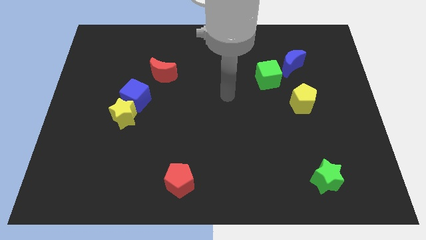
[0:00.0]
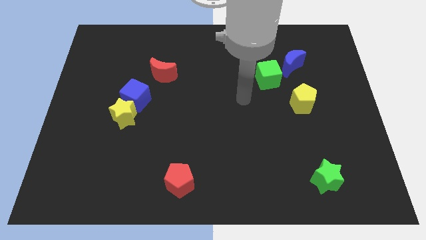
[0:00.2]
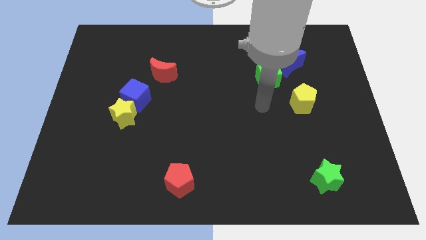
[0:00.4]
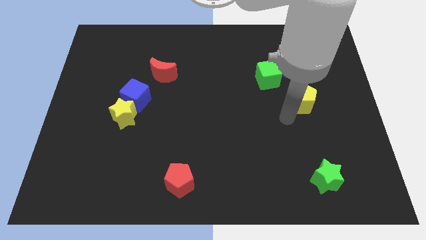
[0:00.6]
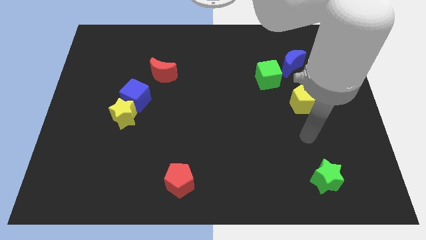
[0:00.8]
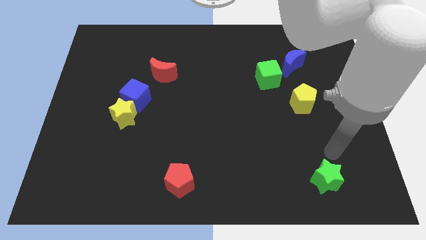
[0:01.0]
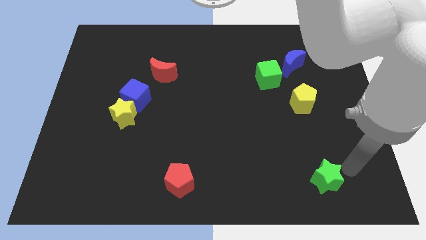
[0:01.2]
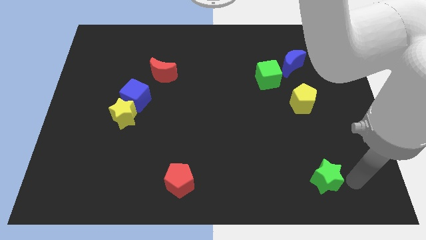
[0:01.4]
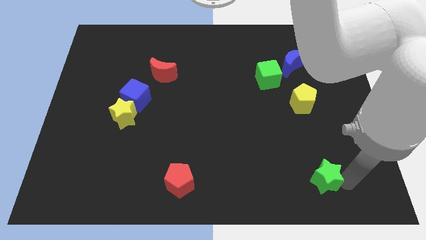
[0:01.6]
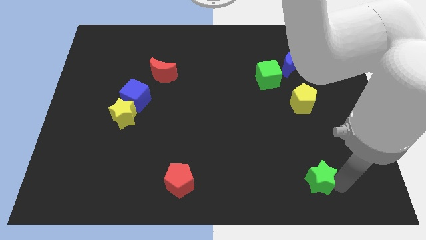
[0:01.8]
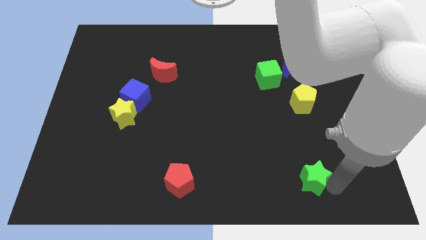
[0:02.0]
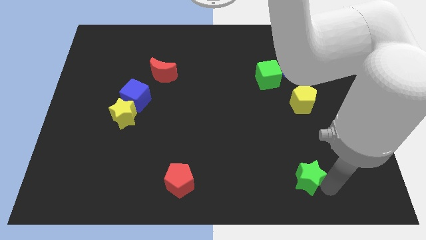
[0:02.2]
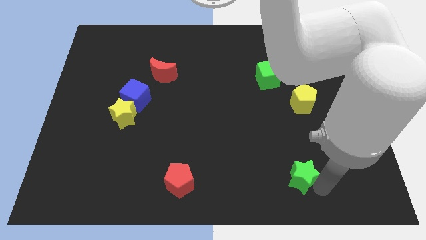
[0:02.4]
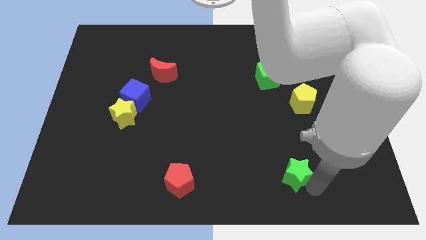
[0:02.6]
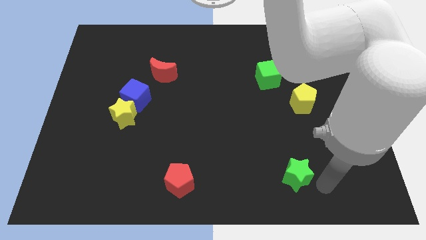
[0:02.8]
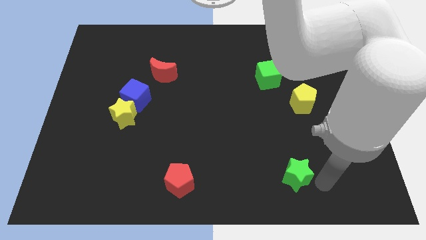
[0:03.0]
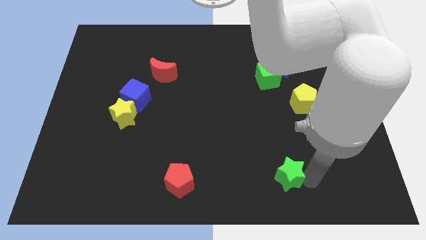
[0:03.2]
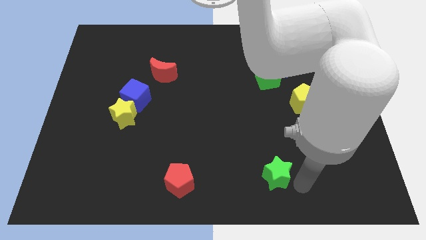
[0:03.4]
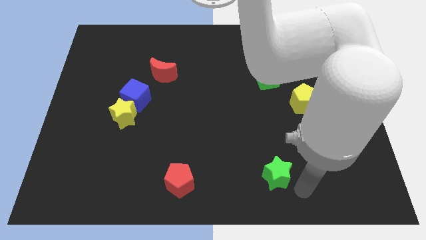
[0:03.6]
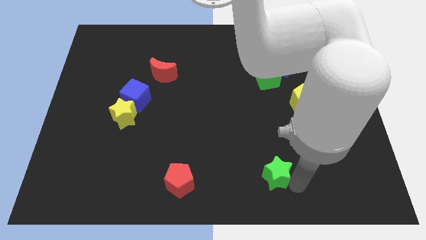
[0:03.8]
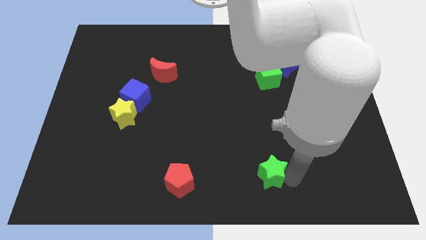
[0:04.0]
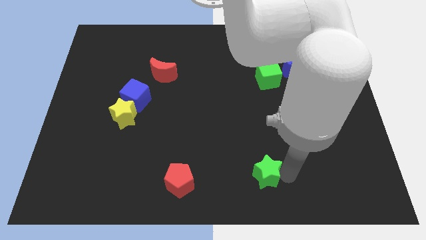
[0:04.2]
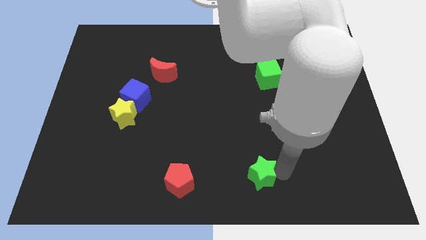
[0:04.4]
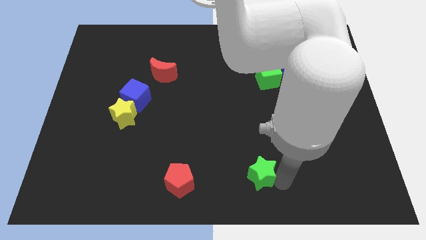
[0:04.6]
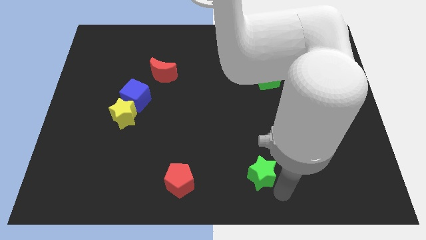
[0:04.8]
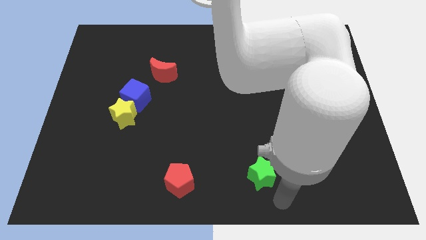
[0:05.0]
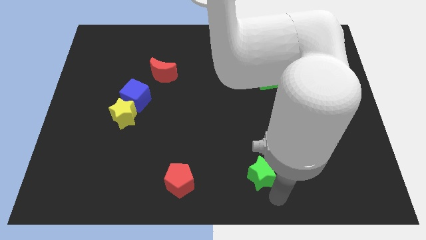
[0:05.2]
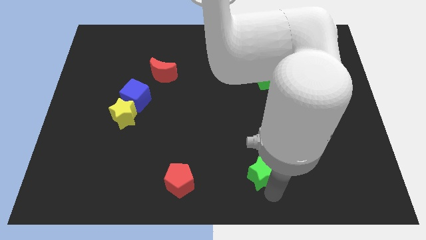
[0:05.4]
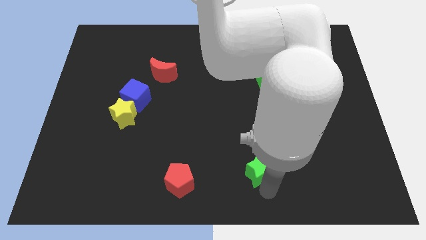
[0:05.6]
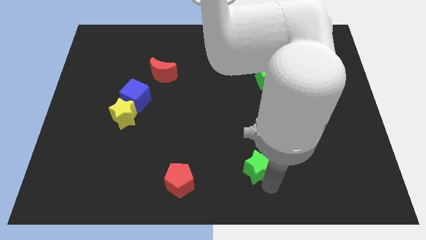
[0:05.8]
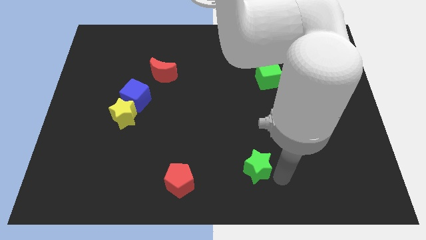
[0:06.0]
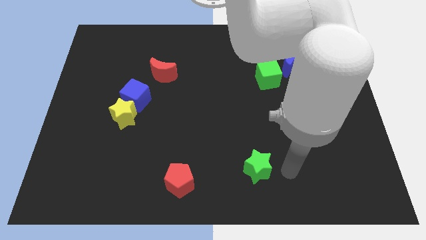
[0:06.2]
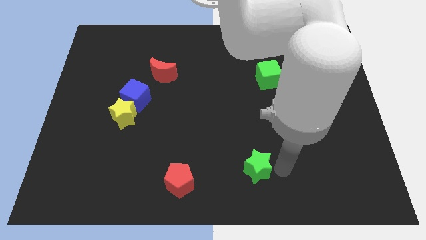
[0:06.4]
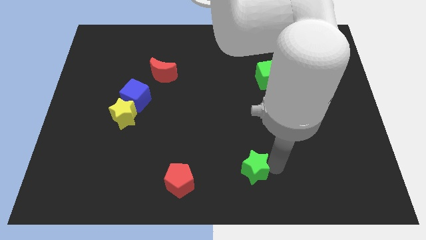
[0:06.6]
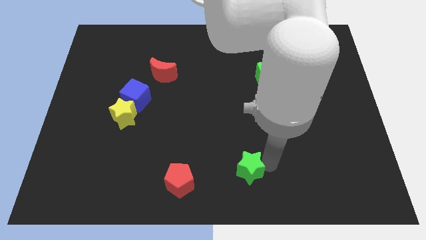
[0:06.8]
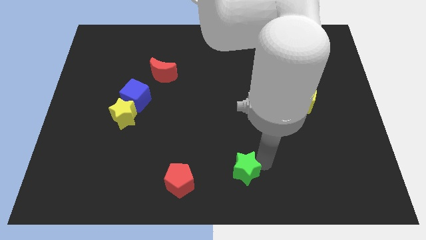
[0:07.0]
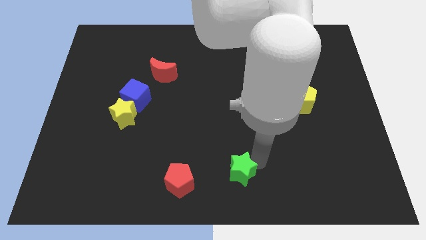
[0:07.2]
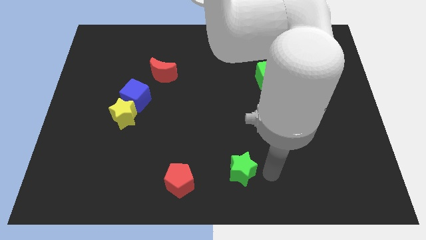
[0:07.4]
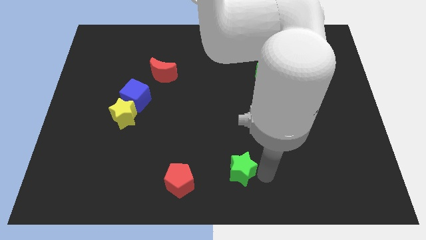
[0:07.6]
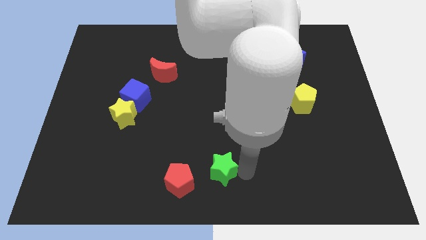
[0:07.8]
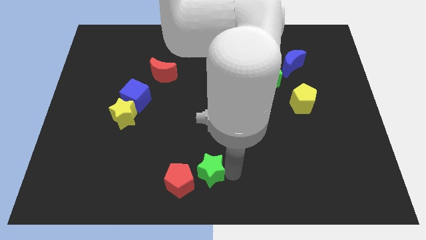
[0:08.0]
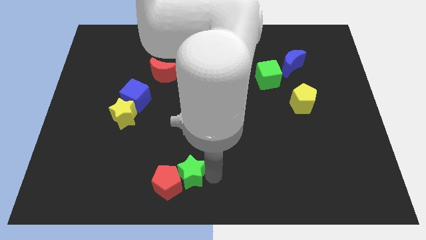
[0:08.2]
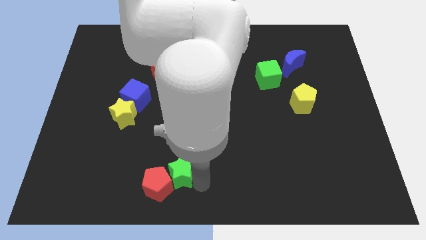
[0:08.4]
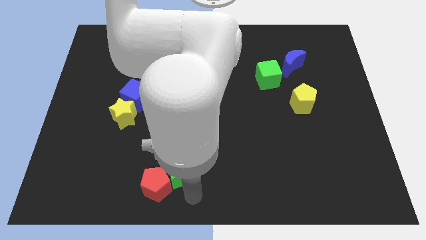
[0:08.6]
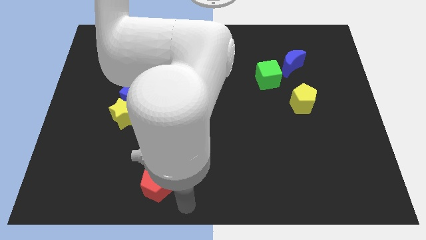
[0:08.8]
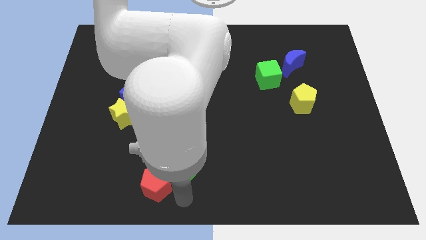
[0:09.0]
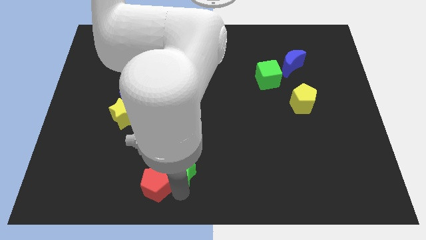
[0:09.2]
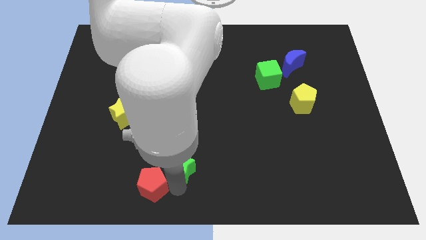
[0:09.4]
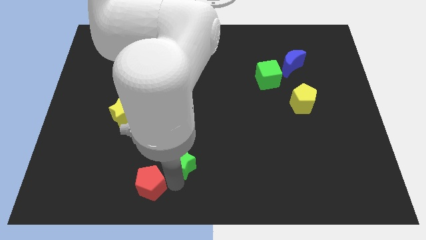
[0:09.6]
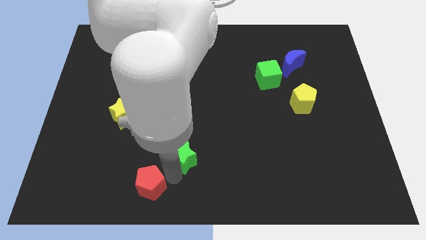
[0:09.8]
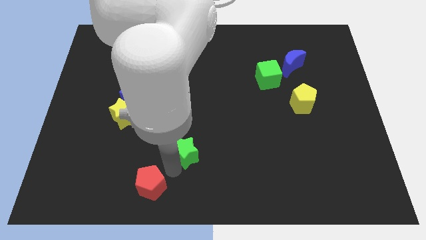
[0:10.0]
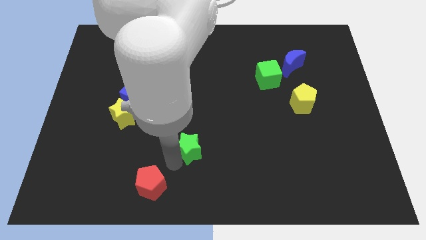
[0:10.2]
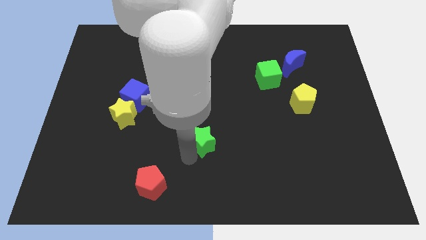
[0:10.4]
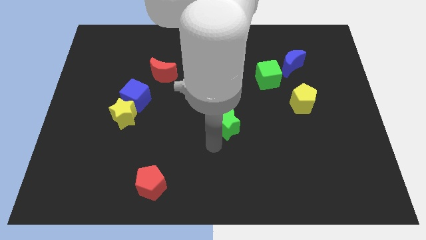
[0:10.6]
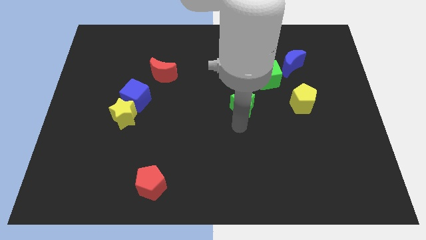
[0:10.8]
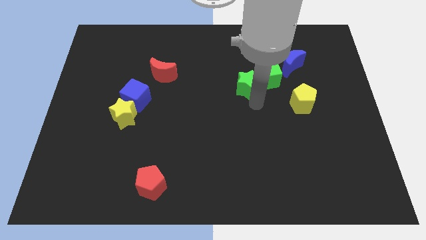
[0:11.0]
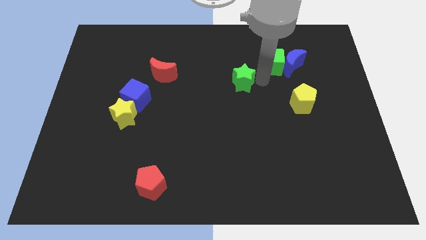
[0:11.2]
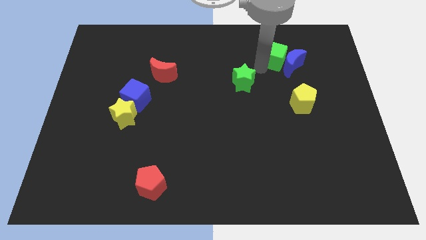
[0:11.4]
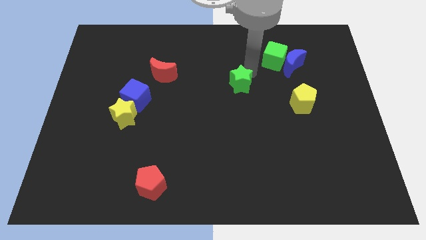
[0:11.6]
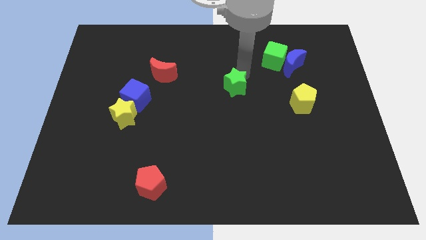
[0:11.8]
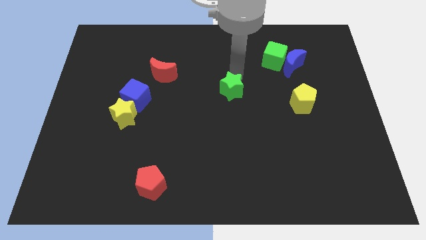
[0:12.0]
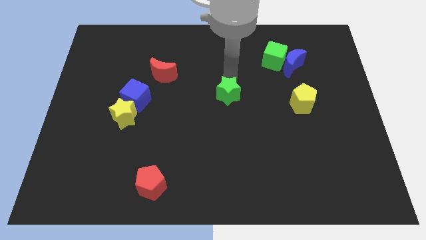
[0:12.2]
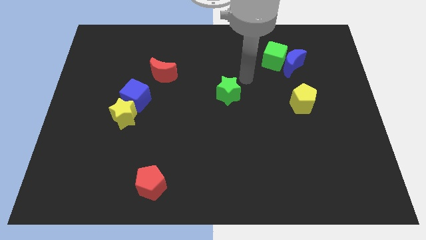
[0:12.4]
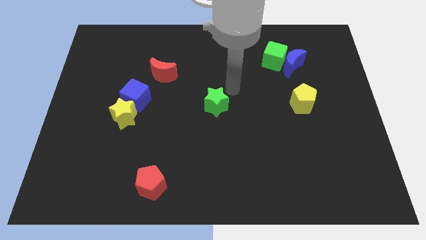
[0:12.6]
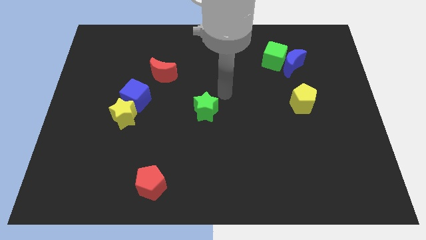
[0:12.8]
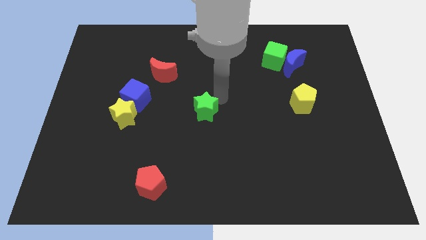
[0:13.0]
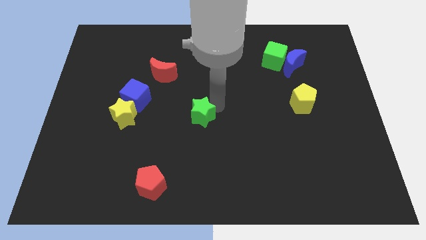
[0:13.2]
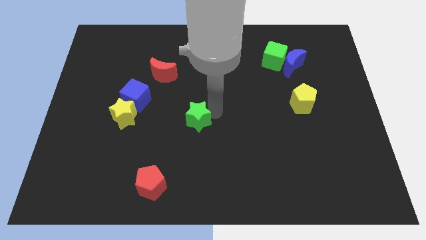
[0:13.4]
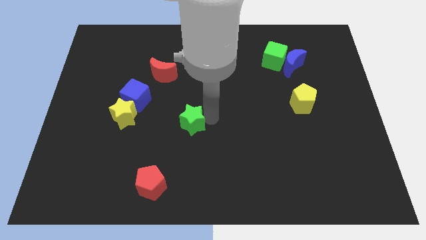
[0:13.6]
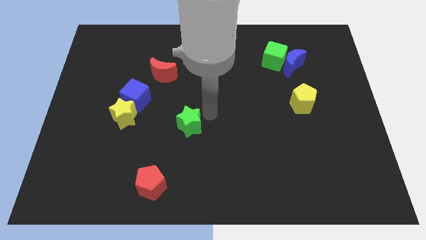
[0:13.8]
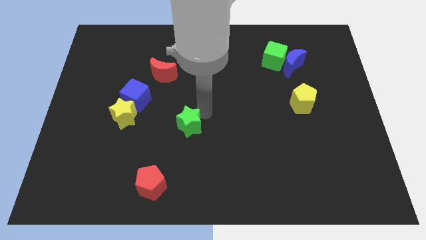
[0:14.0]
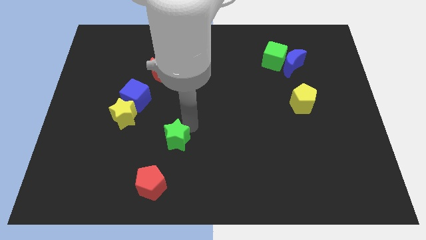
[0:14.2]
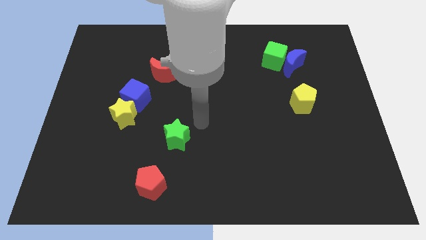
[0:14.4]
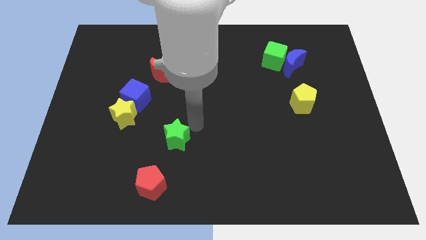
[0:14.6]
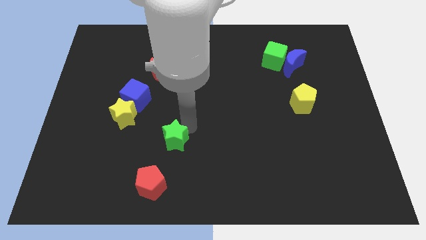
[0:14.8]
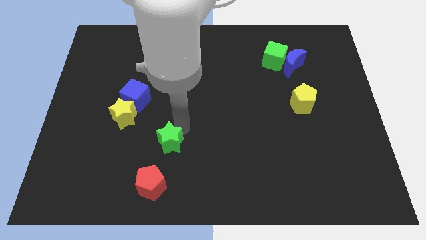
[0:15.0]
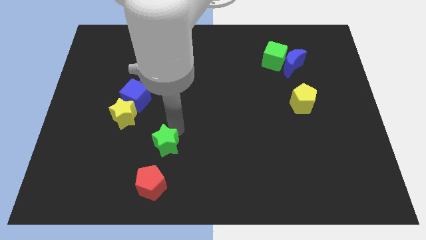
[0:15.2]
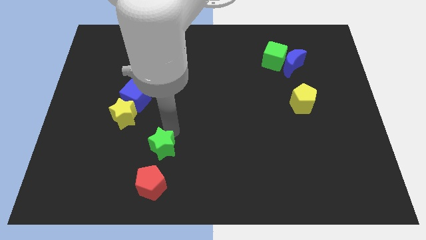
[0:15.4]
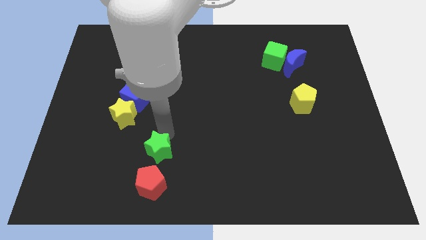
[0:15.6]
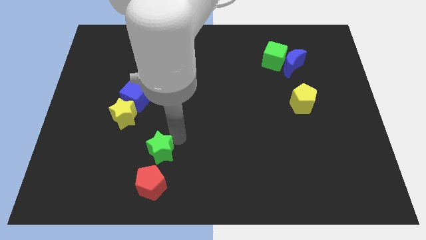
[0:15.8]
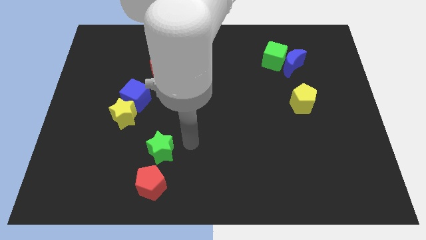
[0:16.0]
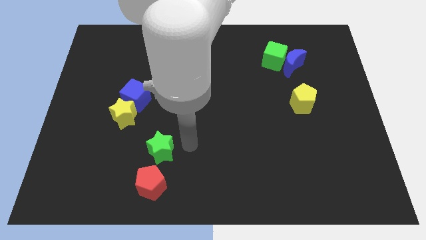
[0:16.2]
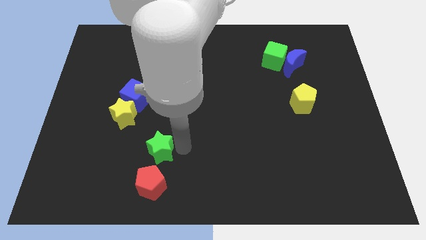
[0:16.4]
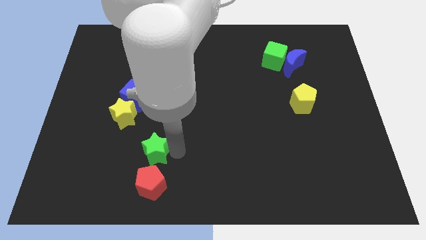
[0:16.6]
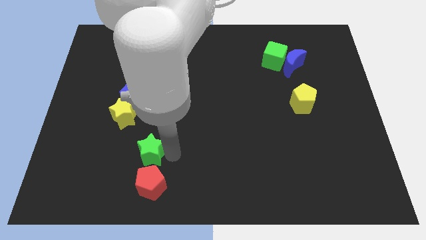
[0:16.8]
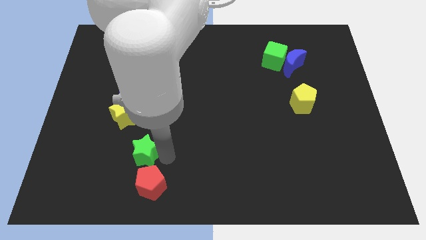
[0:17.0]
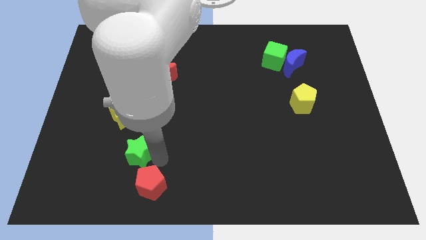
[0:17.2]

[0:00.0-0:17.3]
push the green star below the yellow star
